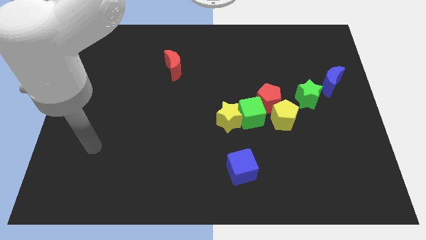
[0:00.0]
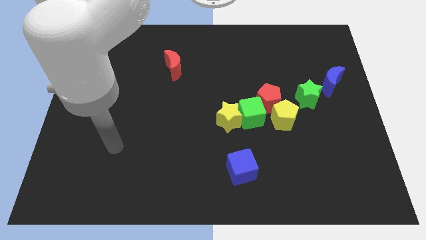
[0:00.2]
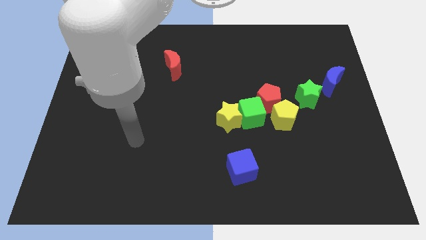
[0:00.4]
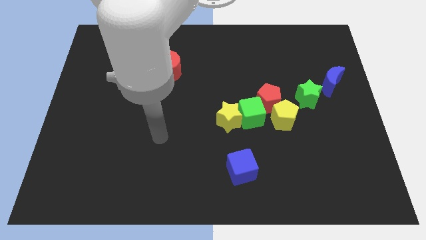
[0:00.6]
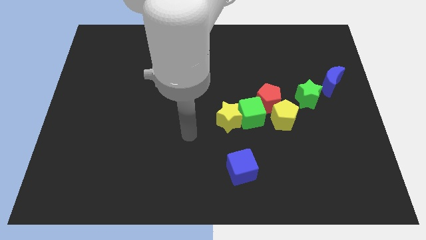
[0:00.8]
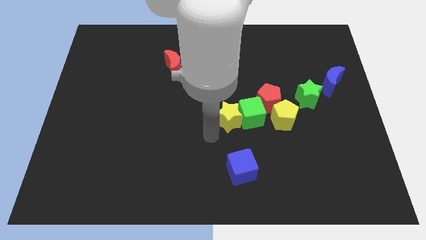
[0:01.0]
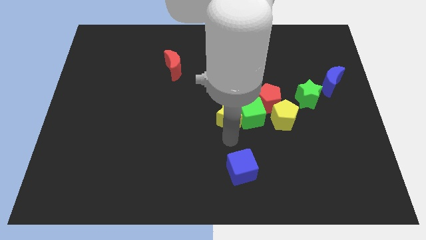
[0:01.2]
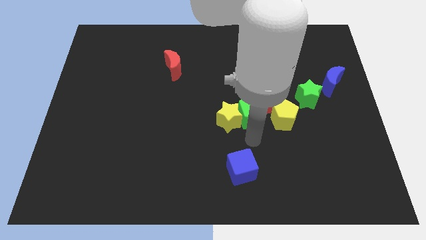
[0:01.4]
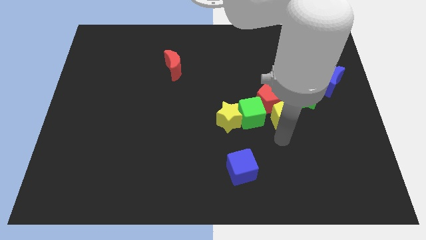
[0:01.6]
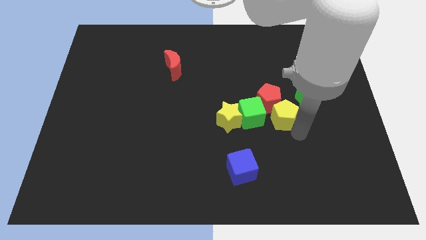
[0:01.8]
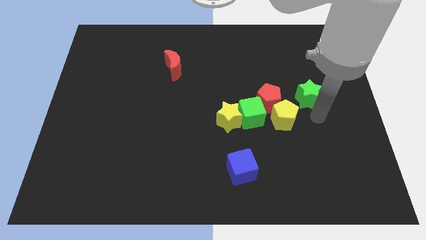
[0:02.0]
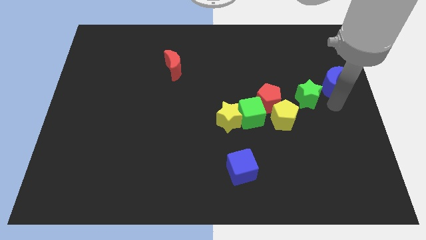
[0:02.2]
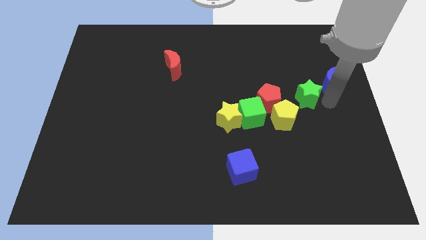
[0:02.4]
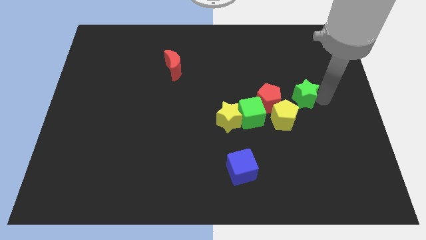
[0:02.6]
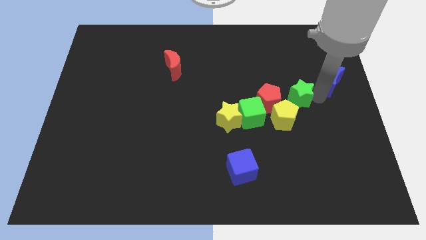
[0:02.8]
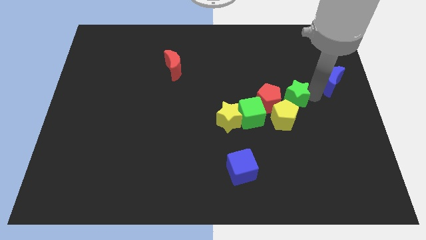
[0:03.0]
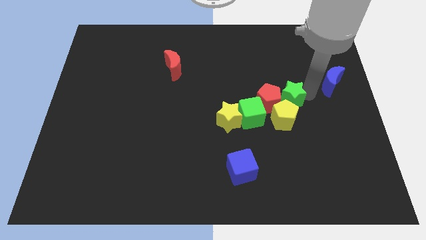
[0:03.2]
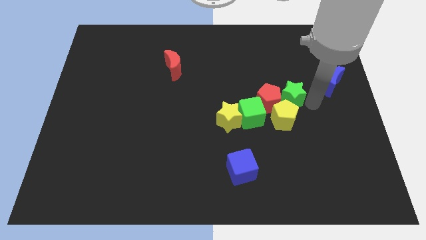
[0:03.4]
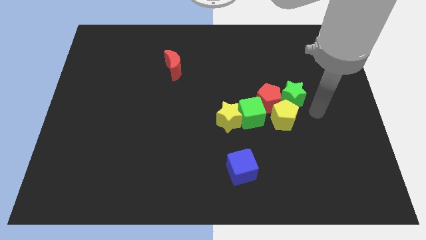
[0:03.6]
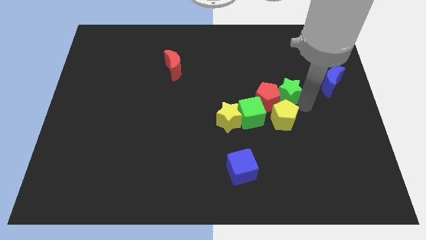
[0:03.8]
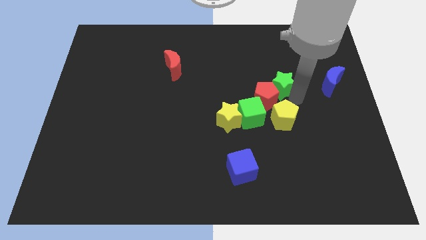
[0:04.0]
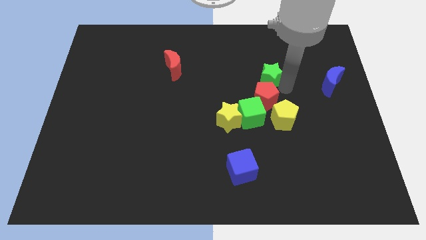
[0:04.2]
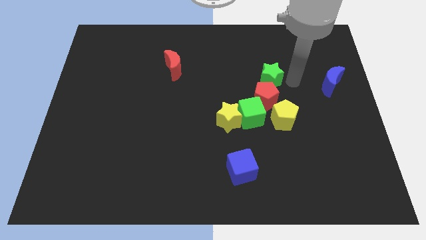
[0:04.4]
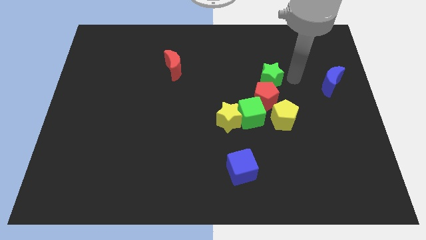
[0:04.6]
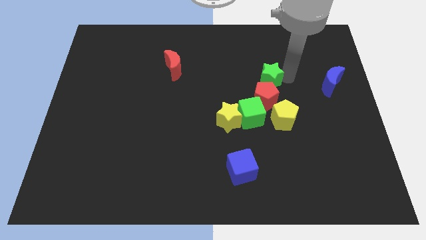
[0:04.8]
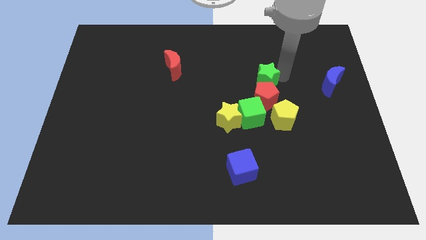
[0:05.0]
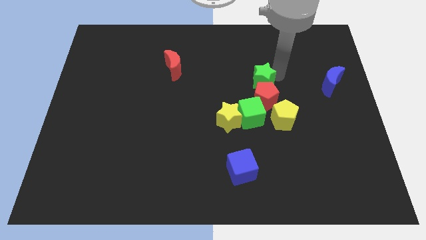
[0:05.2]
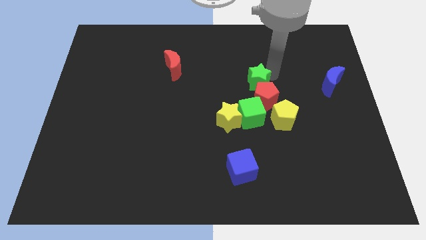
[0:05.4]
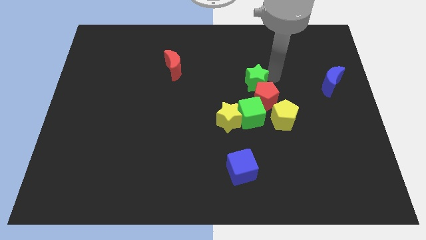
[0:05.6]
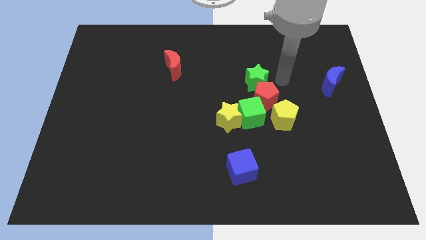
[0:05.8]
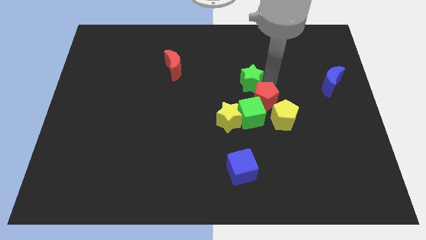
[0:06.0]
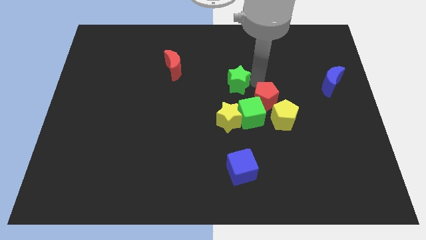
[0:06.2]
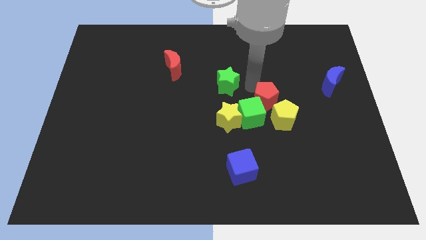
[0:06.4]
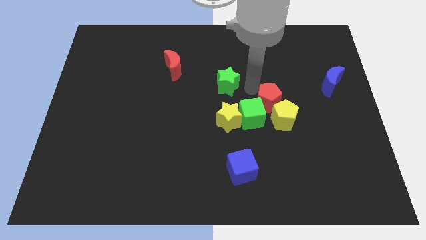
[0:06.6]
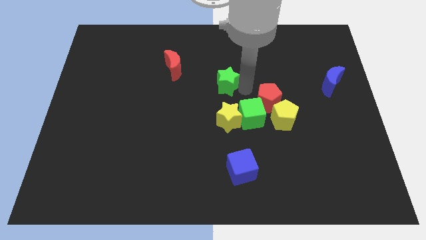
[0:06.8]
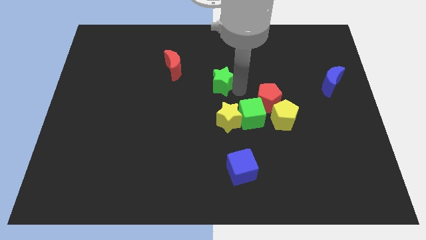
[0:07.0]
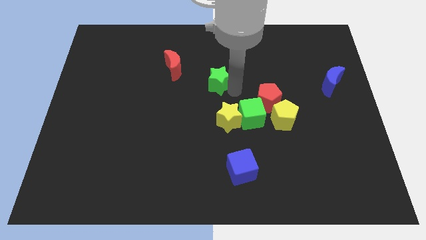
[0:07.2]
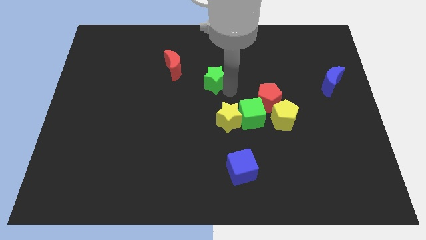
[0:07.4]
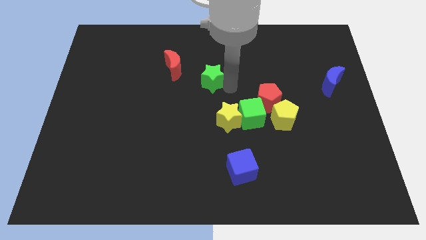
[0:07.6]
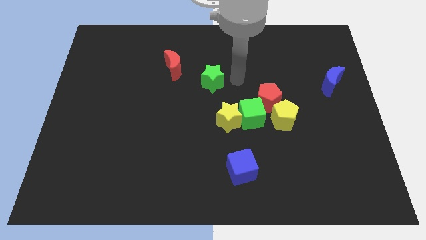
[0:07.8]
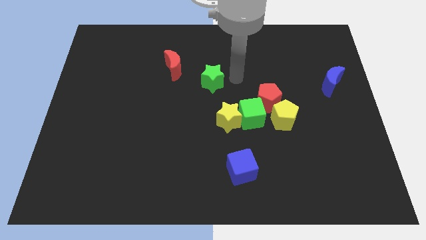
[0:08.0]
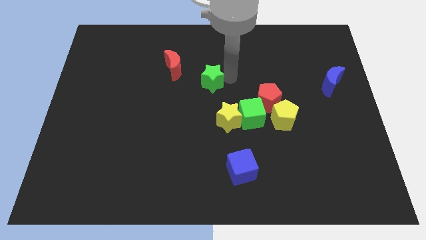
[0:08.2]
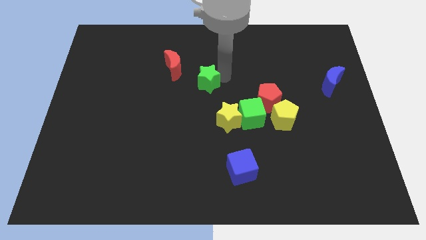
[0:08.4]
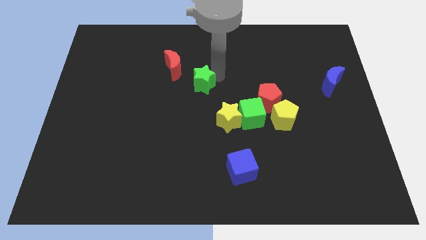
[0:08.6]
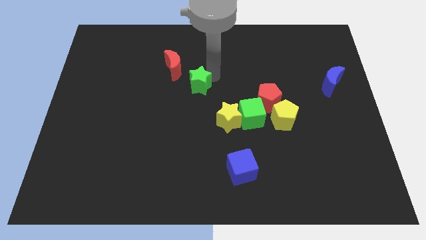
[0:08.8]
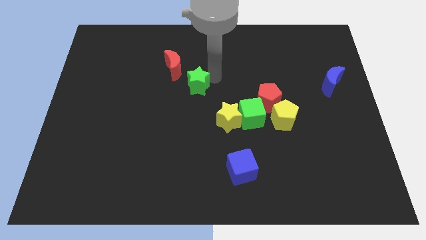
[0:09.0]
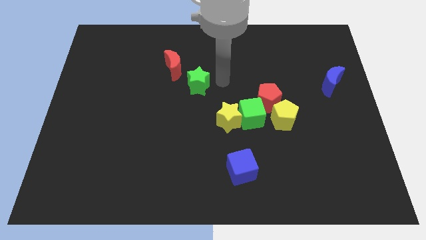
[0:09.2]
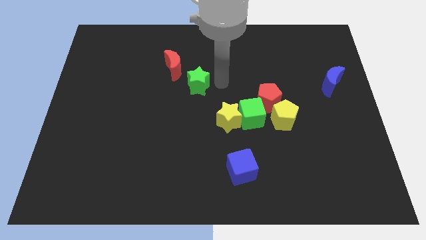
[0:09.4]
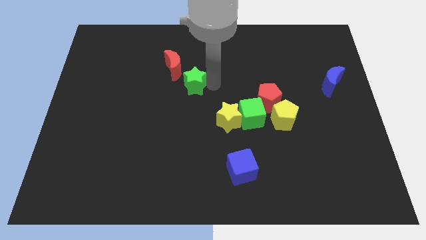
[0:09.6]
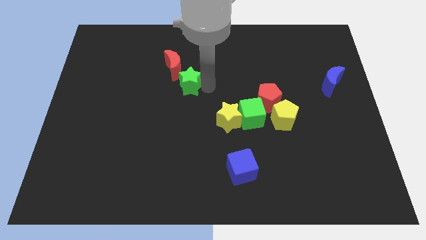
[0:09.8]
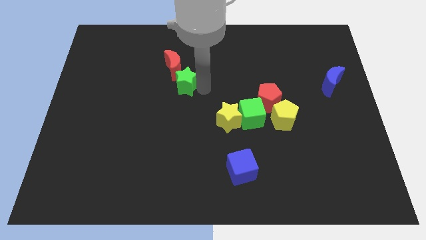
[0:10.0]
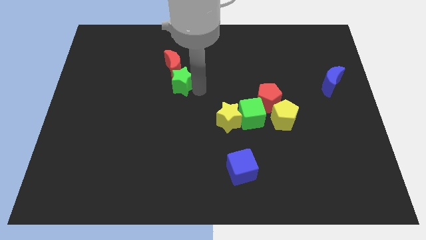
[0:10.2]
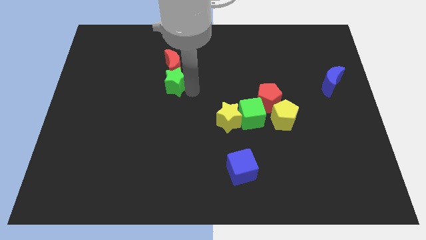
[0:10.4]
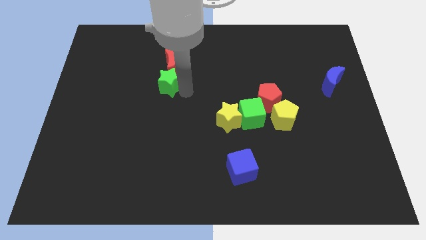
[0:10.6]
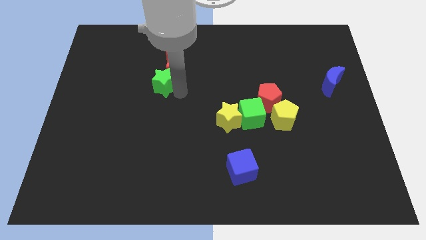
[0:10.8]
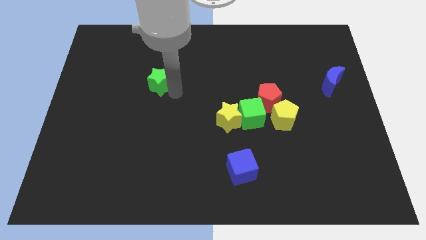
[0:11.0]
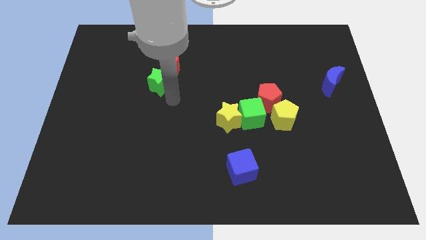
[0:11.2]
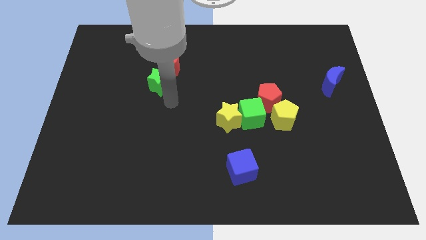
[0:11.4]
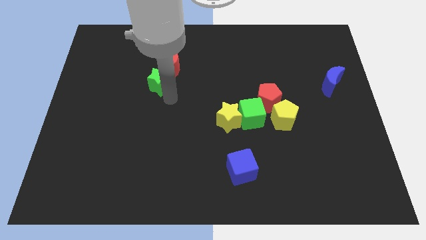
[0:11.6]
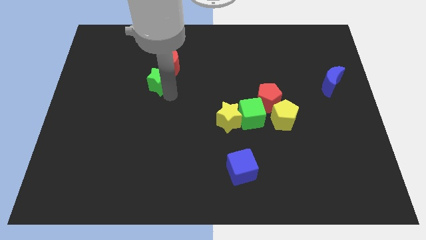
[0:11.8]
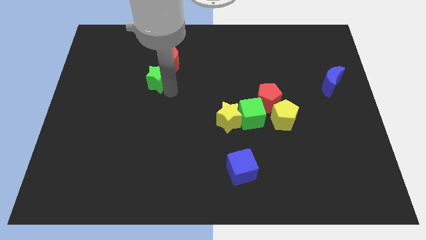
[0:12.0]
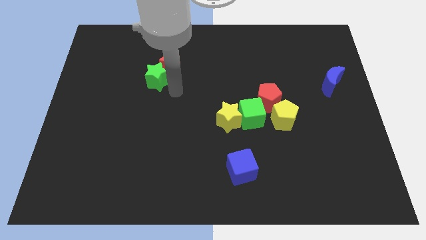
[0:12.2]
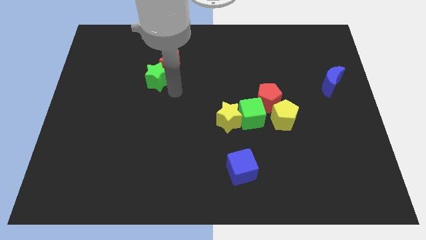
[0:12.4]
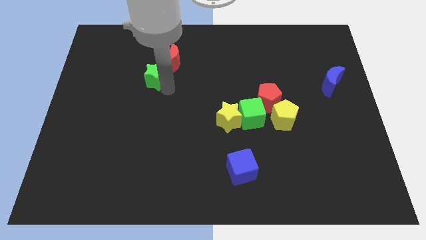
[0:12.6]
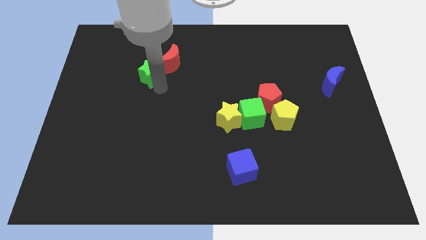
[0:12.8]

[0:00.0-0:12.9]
push the green star to the left of the red moon

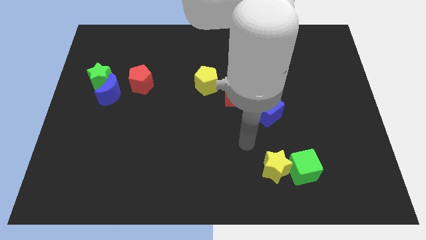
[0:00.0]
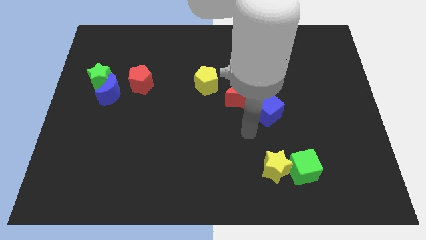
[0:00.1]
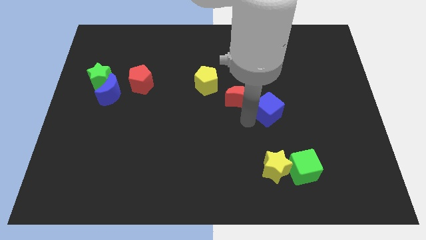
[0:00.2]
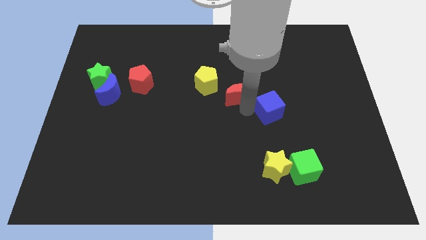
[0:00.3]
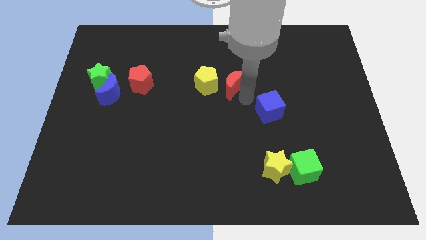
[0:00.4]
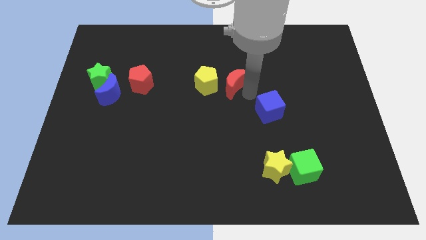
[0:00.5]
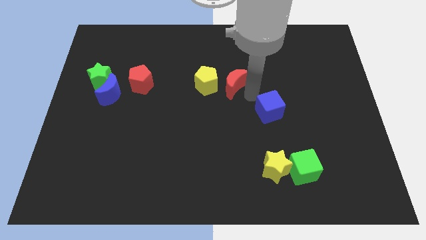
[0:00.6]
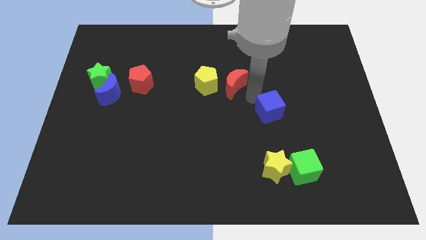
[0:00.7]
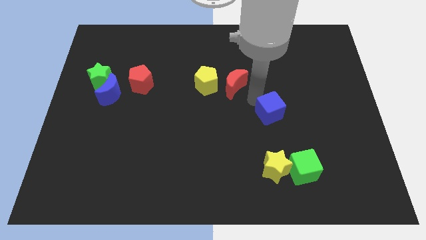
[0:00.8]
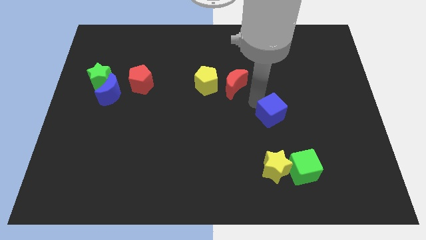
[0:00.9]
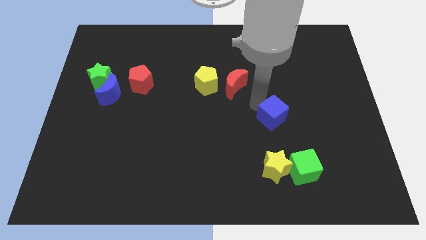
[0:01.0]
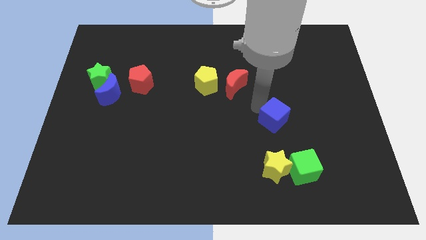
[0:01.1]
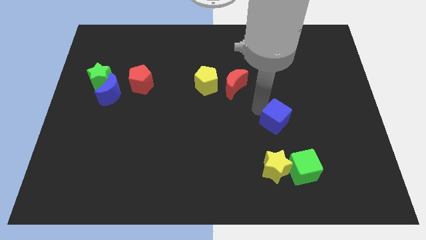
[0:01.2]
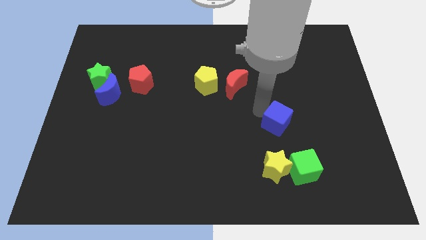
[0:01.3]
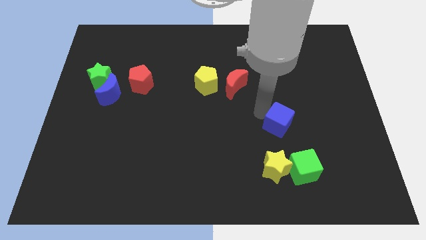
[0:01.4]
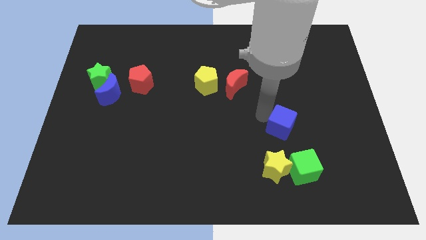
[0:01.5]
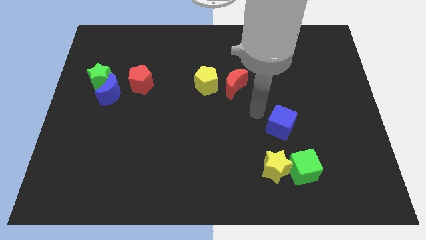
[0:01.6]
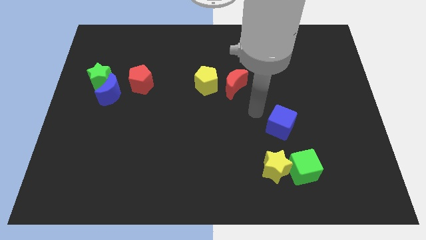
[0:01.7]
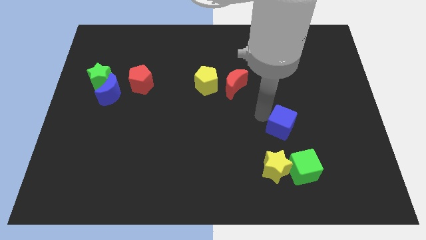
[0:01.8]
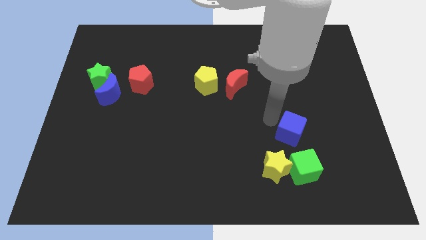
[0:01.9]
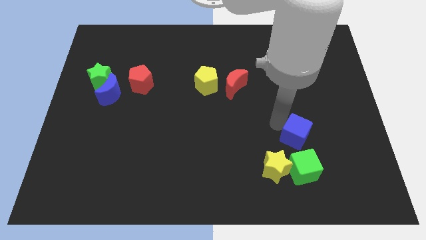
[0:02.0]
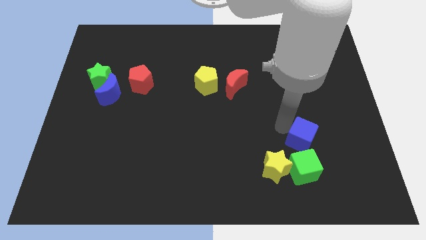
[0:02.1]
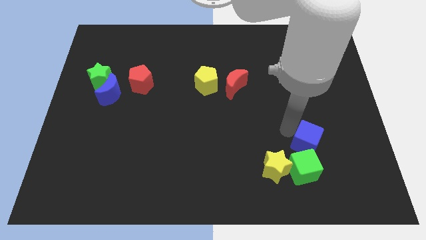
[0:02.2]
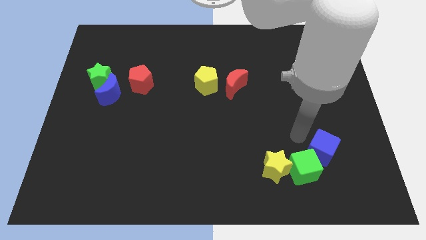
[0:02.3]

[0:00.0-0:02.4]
push the blue cube to the right side of the green cube
